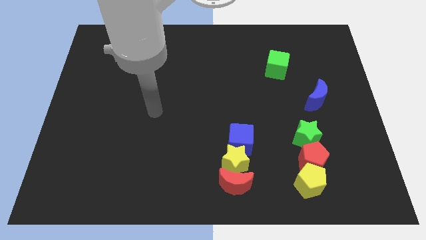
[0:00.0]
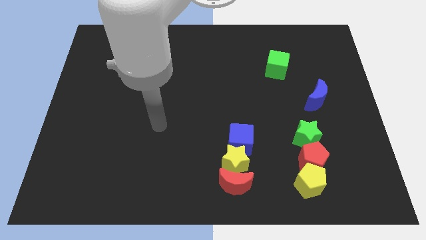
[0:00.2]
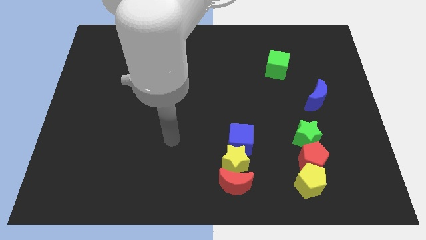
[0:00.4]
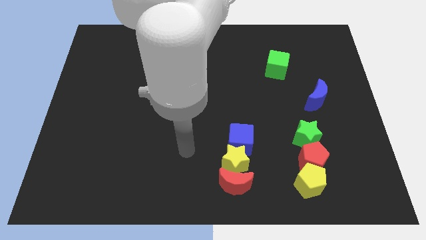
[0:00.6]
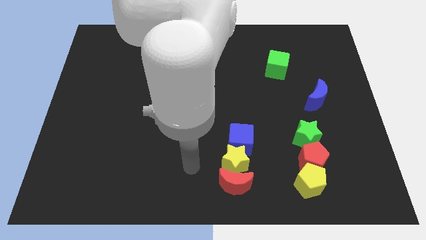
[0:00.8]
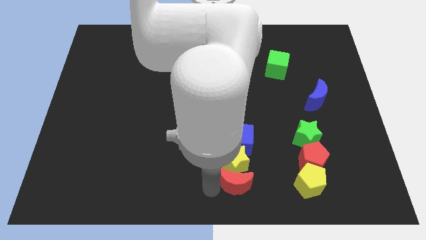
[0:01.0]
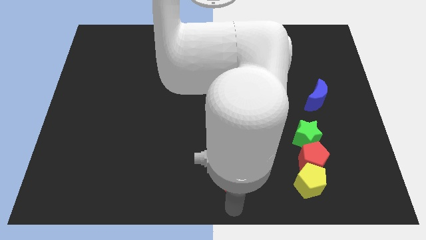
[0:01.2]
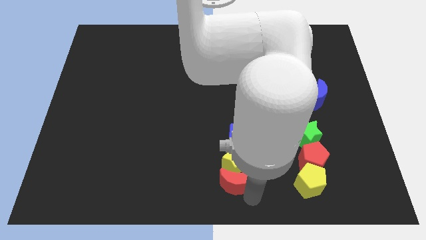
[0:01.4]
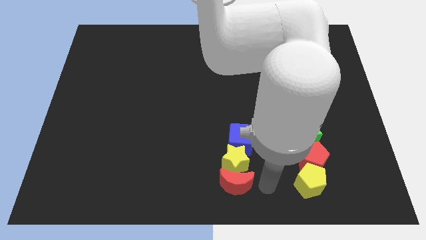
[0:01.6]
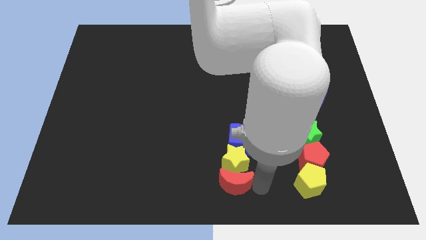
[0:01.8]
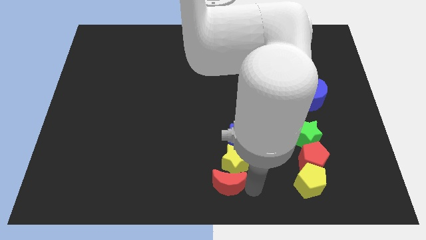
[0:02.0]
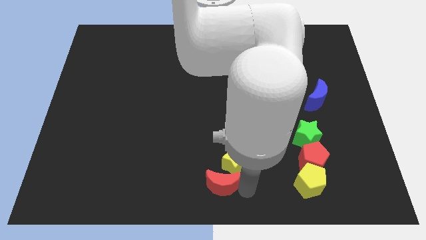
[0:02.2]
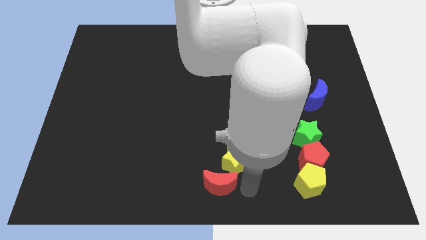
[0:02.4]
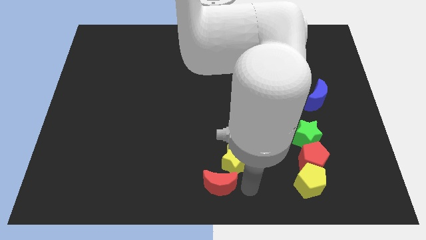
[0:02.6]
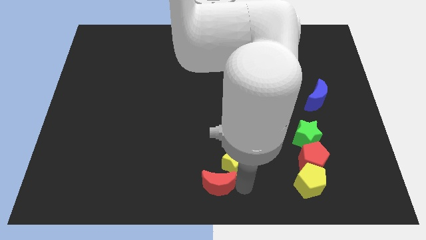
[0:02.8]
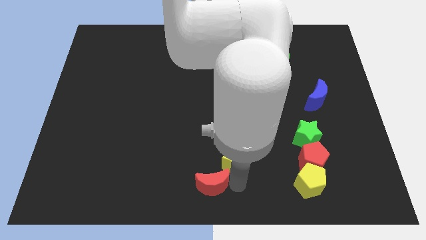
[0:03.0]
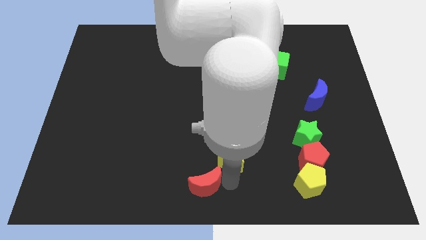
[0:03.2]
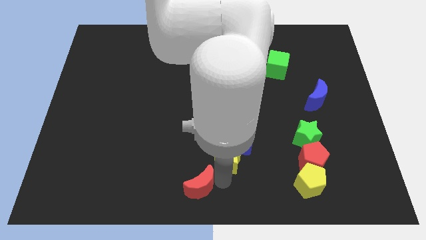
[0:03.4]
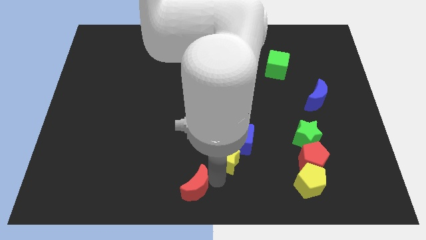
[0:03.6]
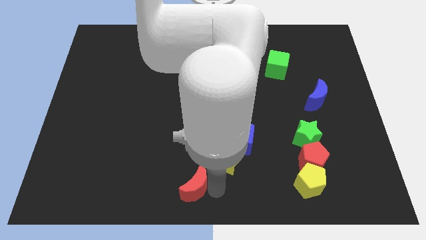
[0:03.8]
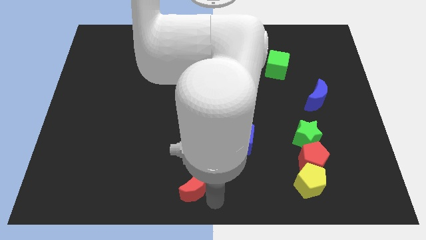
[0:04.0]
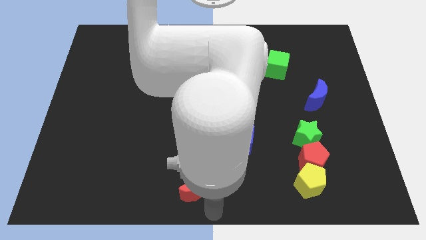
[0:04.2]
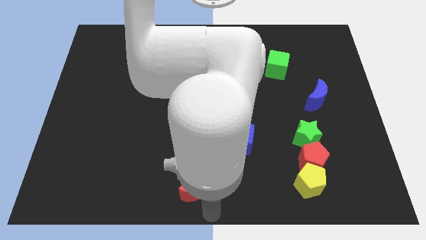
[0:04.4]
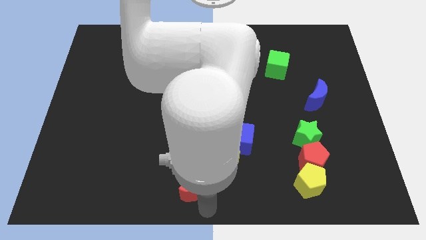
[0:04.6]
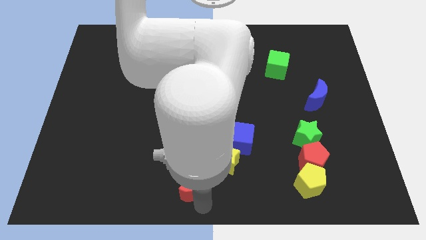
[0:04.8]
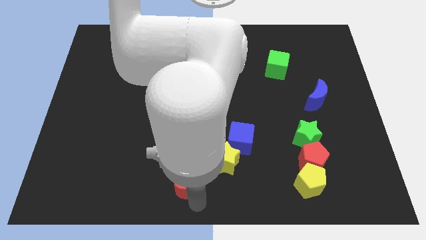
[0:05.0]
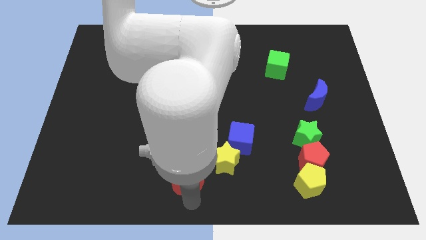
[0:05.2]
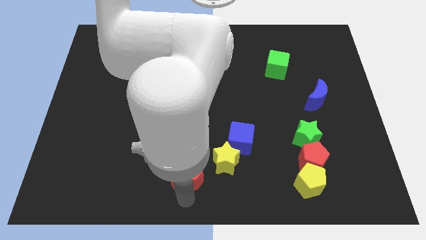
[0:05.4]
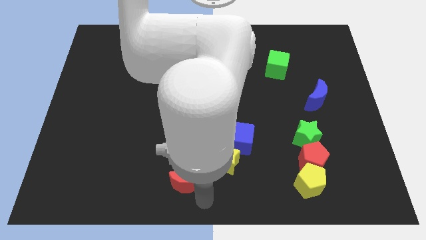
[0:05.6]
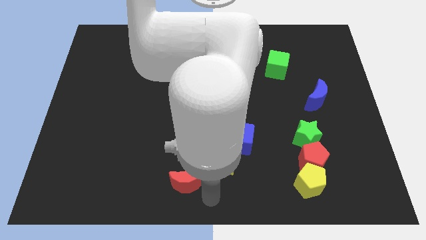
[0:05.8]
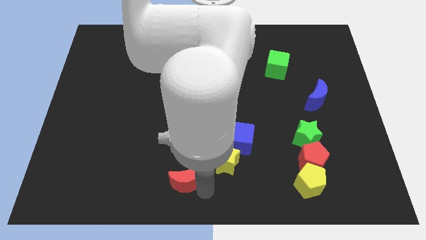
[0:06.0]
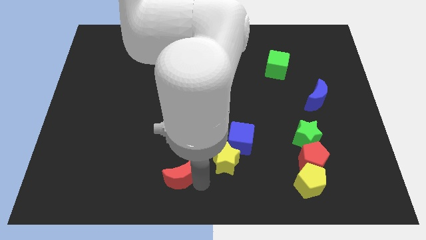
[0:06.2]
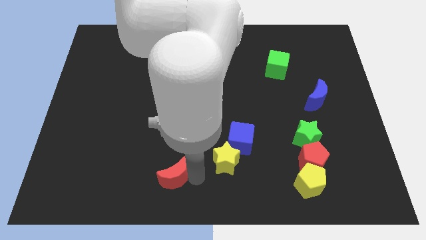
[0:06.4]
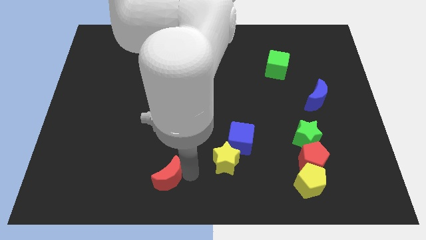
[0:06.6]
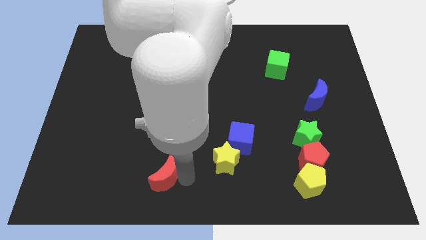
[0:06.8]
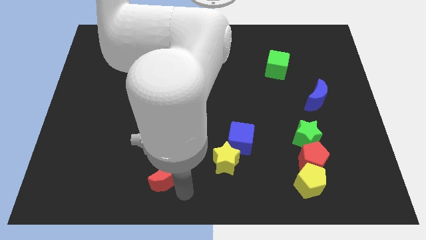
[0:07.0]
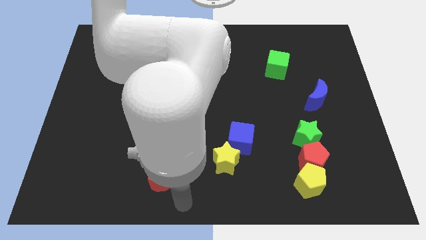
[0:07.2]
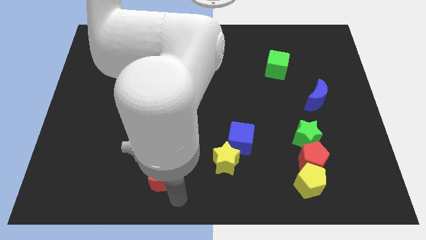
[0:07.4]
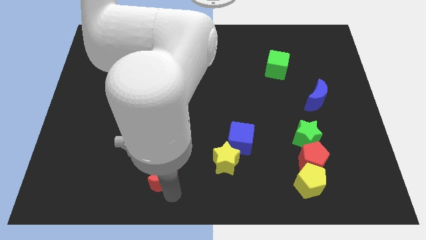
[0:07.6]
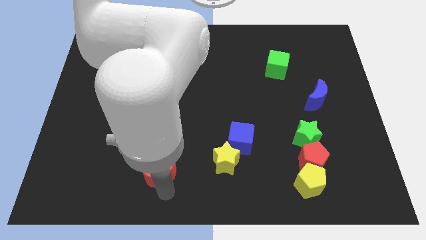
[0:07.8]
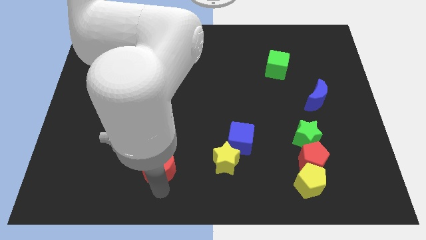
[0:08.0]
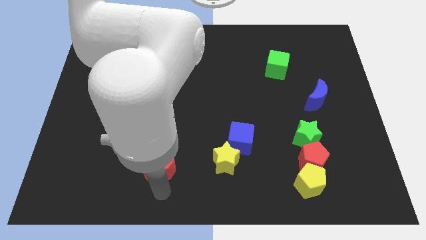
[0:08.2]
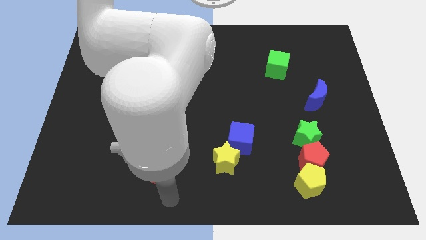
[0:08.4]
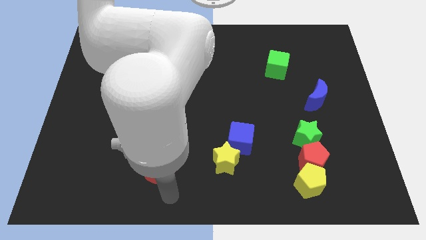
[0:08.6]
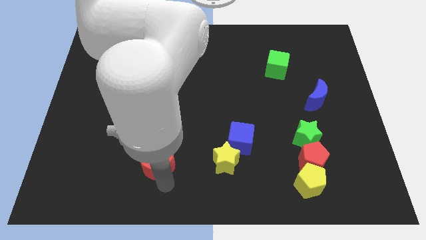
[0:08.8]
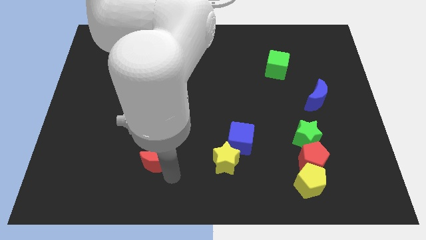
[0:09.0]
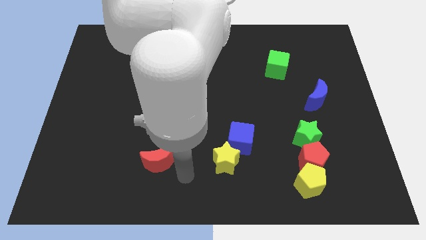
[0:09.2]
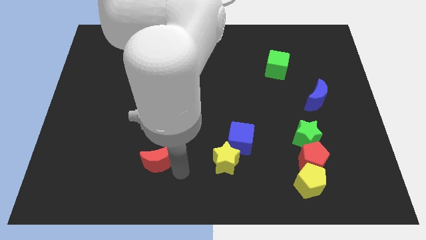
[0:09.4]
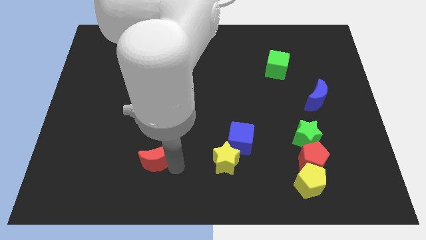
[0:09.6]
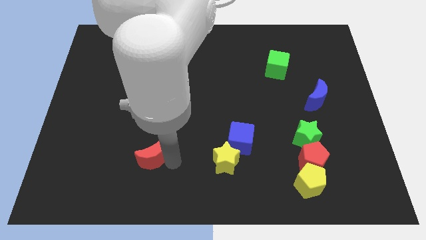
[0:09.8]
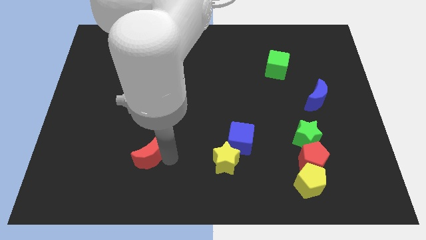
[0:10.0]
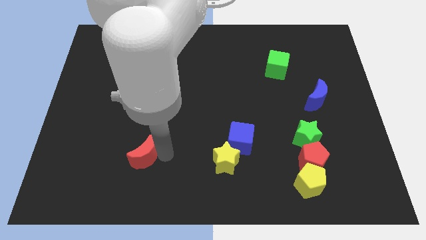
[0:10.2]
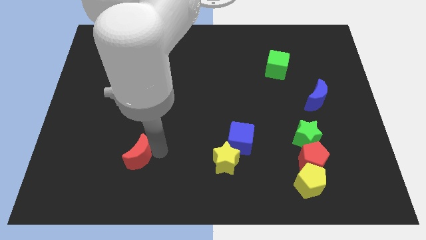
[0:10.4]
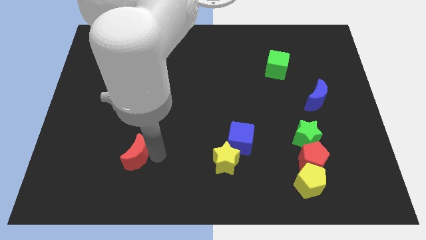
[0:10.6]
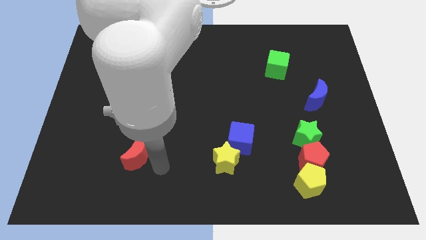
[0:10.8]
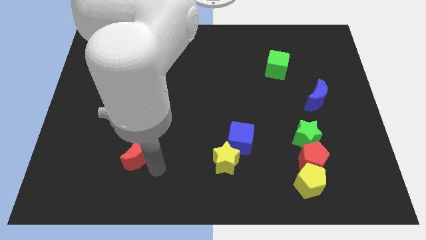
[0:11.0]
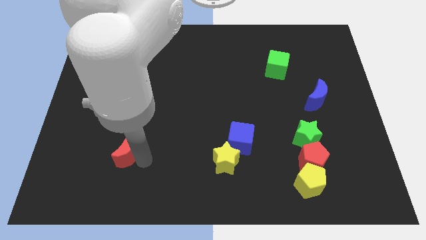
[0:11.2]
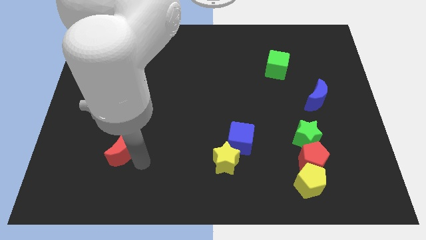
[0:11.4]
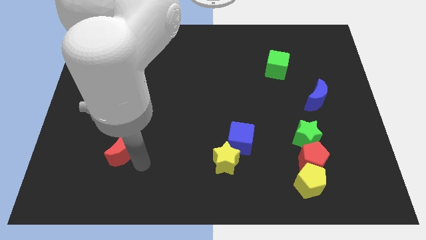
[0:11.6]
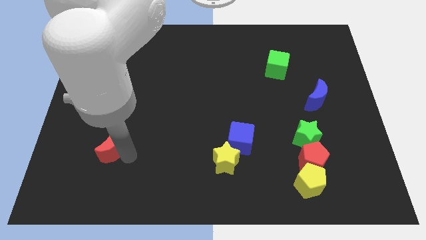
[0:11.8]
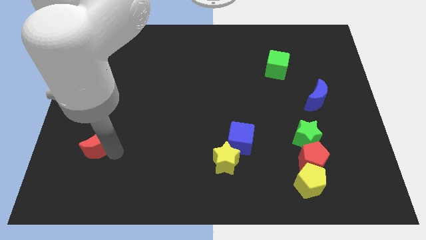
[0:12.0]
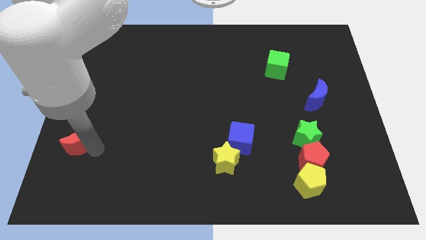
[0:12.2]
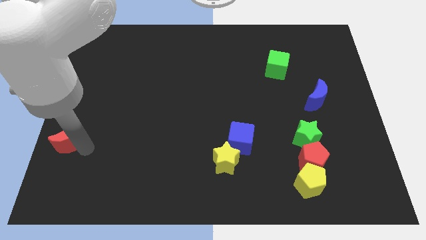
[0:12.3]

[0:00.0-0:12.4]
move the red moon to the center left
